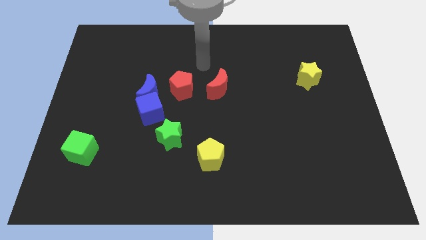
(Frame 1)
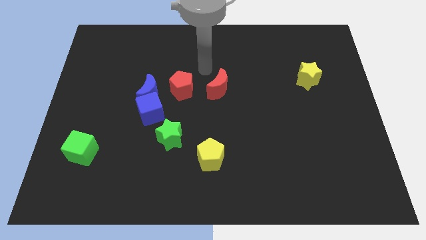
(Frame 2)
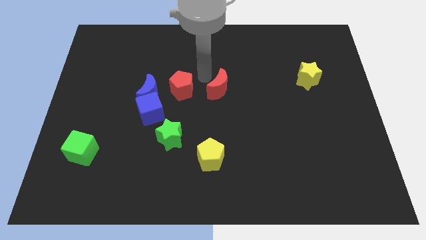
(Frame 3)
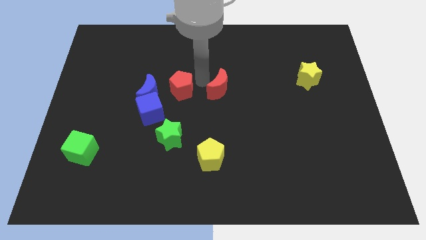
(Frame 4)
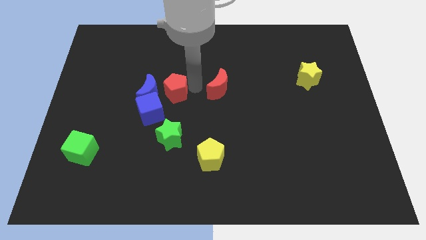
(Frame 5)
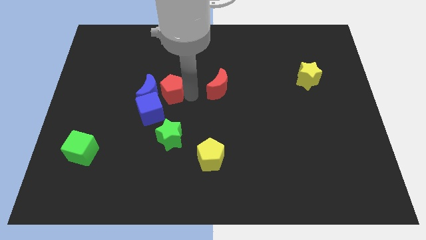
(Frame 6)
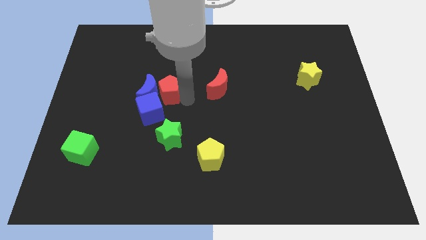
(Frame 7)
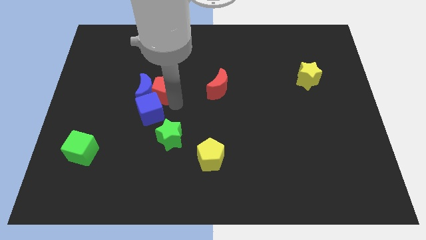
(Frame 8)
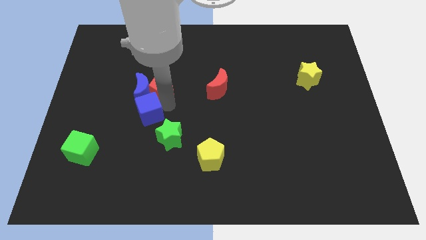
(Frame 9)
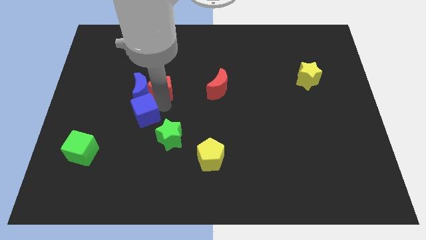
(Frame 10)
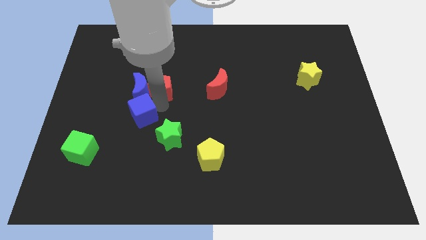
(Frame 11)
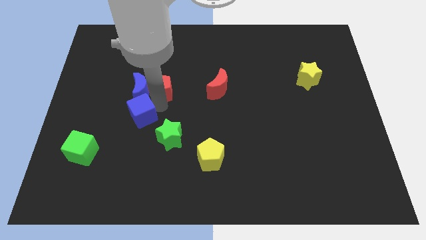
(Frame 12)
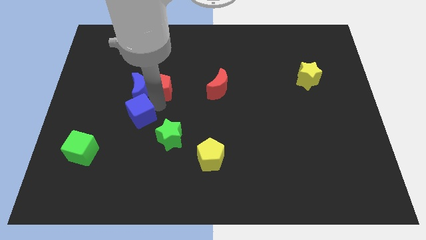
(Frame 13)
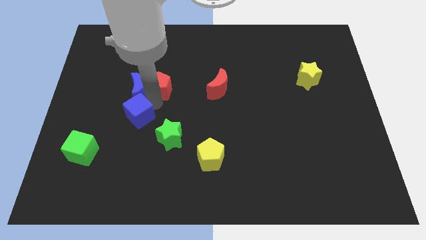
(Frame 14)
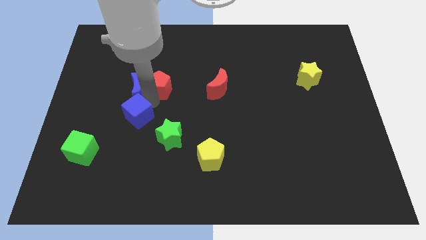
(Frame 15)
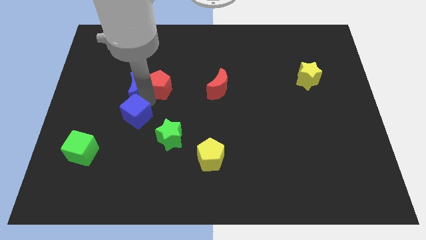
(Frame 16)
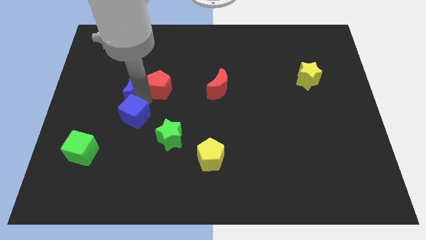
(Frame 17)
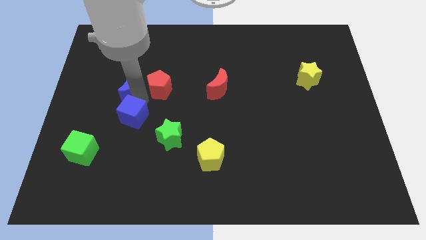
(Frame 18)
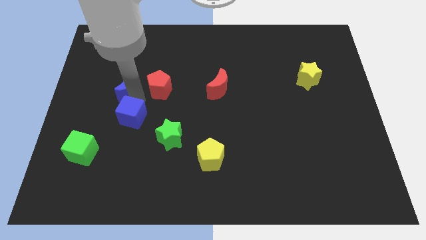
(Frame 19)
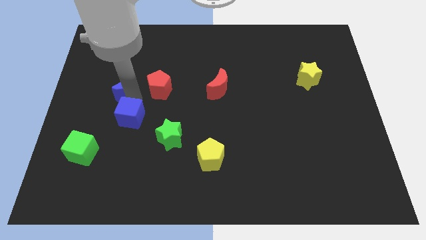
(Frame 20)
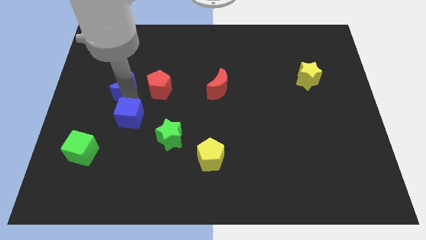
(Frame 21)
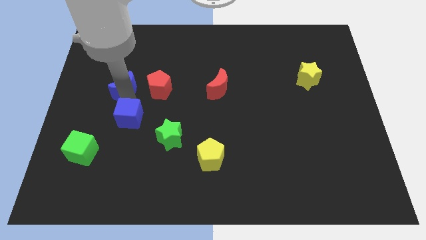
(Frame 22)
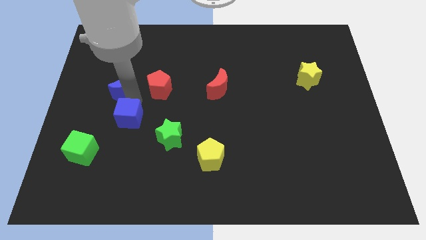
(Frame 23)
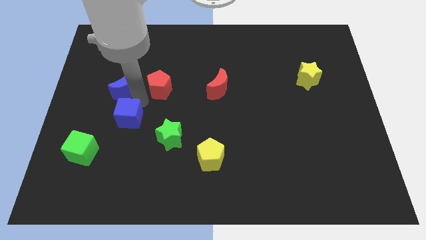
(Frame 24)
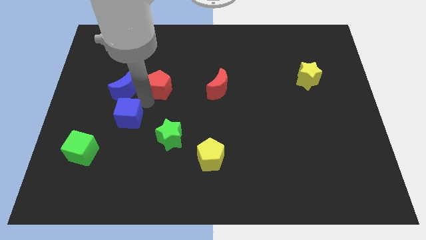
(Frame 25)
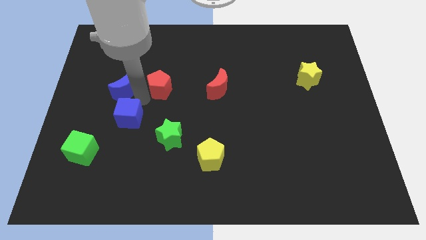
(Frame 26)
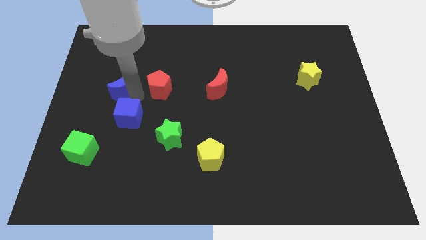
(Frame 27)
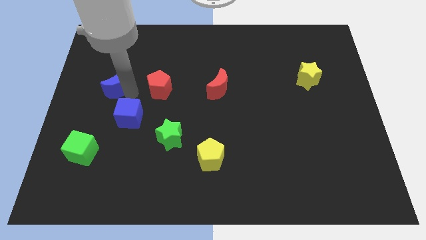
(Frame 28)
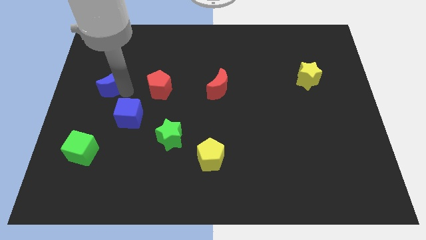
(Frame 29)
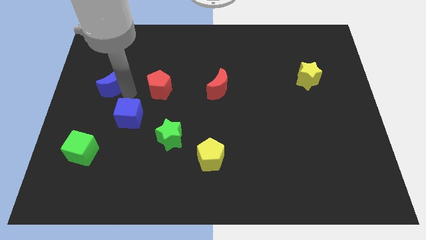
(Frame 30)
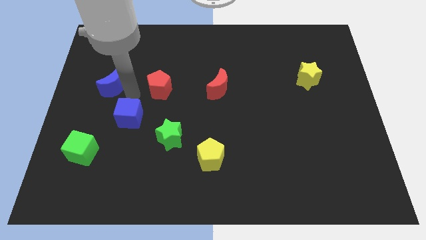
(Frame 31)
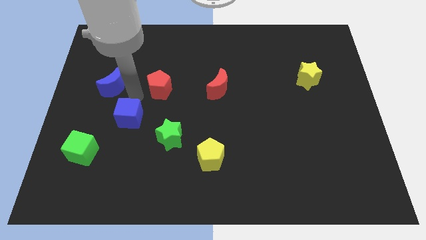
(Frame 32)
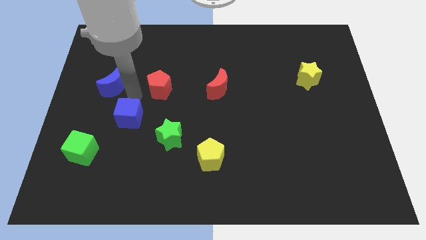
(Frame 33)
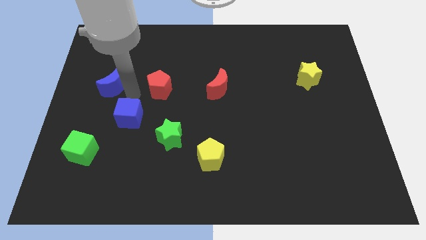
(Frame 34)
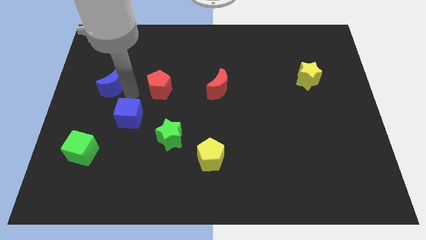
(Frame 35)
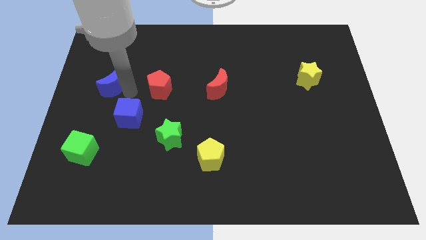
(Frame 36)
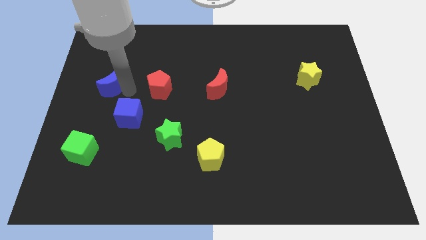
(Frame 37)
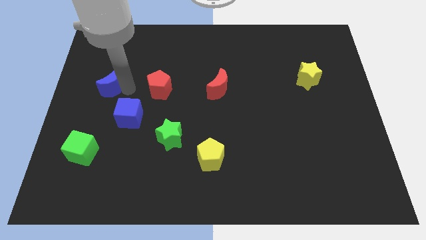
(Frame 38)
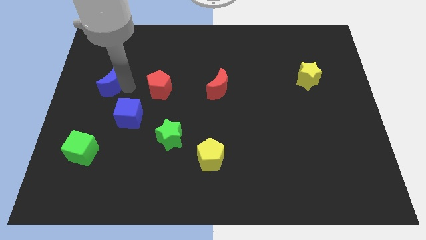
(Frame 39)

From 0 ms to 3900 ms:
pull the blue moon apart from the blue cube and red pentagon

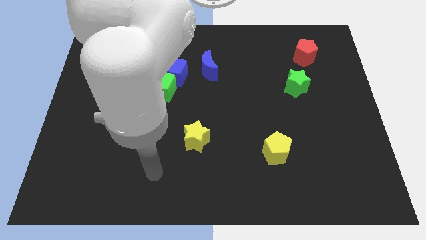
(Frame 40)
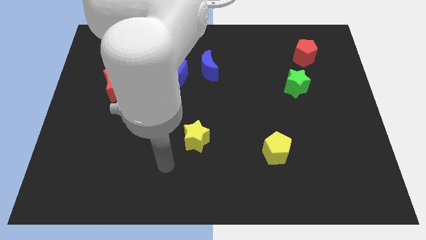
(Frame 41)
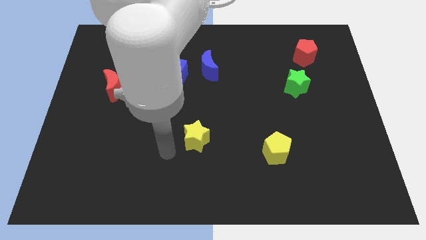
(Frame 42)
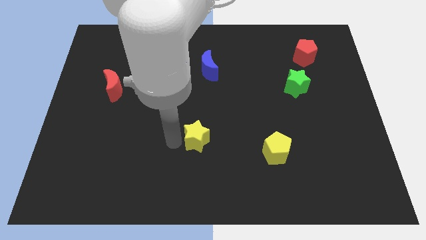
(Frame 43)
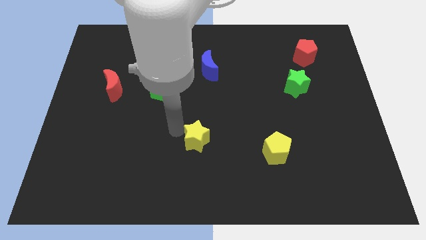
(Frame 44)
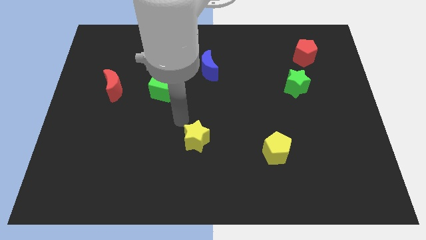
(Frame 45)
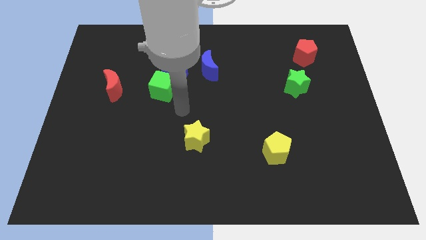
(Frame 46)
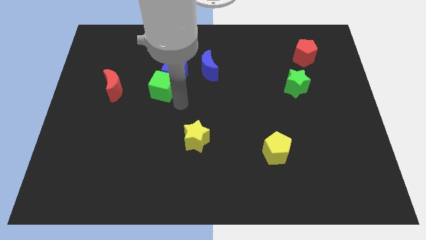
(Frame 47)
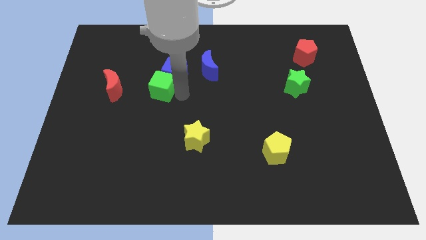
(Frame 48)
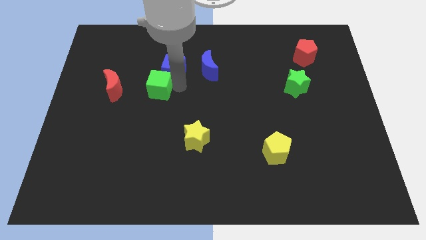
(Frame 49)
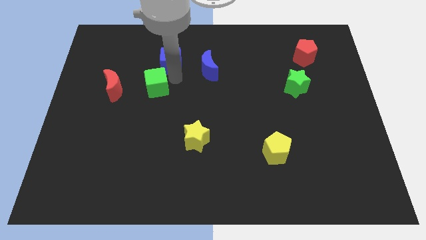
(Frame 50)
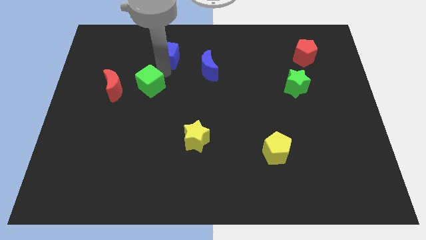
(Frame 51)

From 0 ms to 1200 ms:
separate the green cube from the blue cube

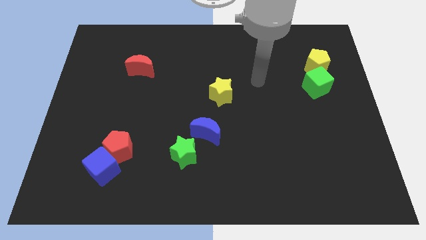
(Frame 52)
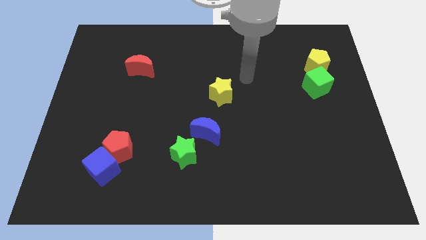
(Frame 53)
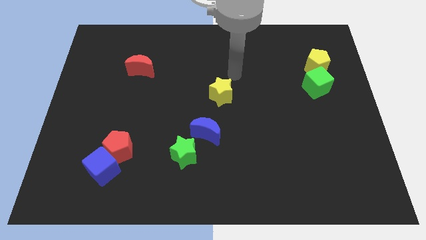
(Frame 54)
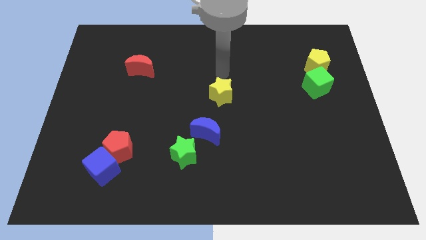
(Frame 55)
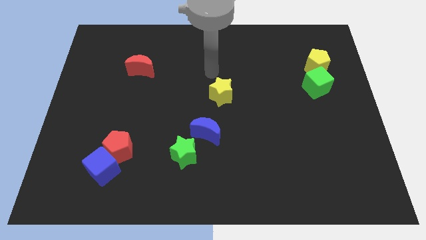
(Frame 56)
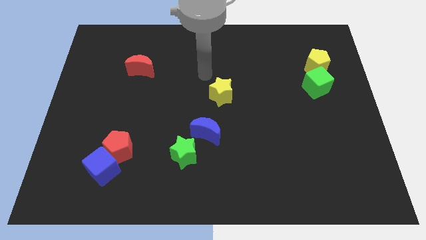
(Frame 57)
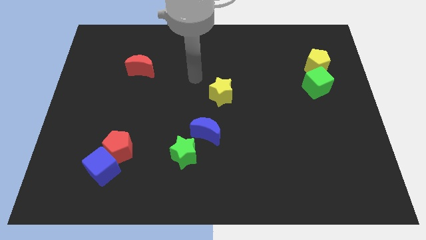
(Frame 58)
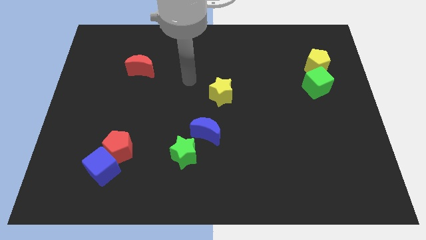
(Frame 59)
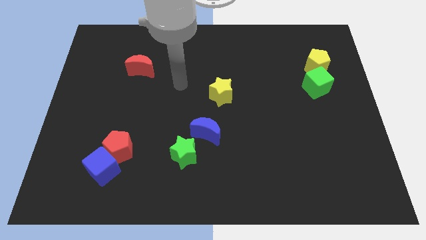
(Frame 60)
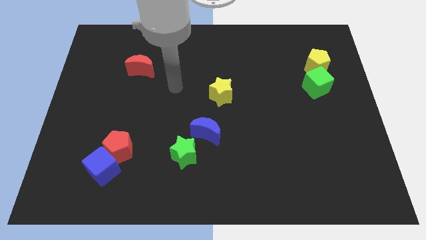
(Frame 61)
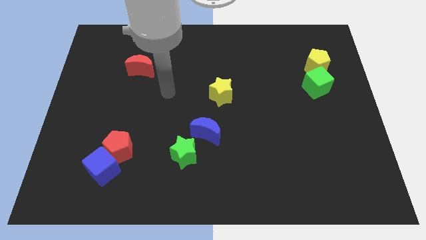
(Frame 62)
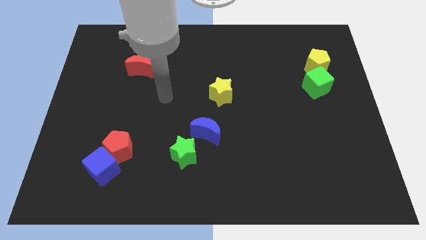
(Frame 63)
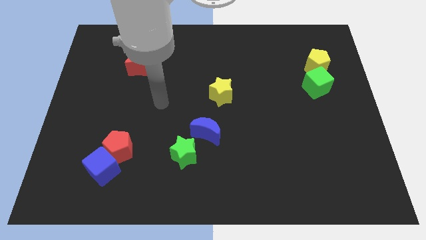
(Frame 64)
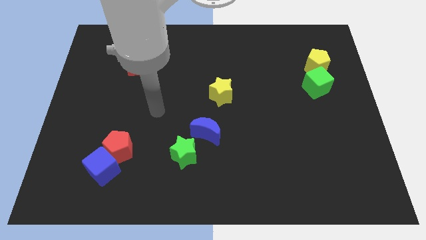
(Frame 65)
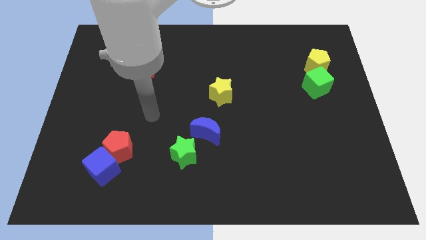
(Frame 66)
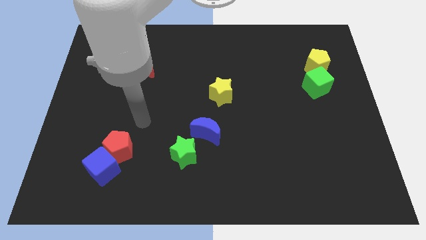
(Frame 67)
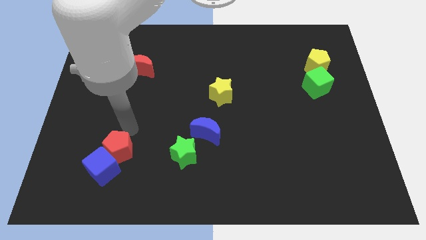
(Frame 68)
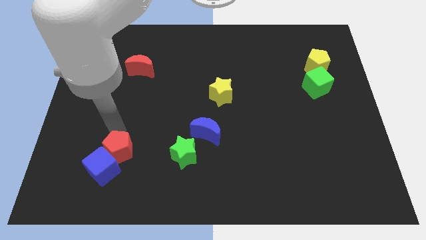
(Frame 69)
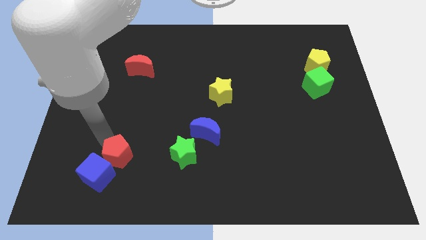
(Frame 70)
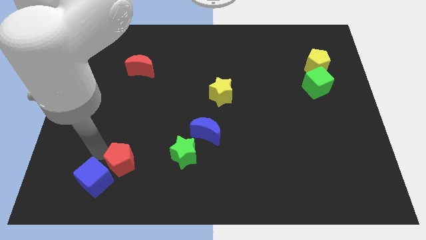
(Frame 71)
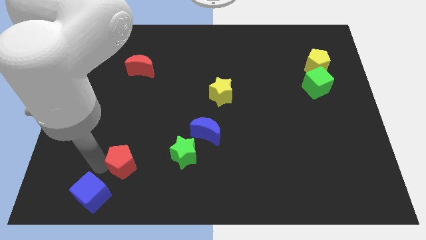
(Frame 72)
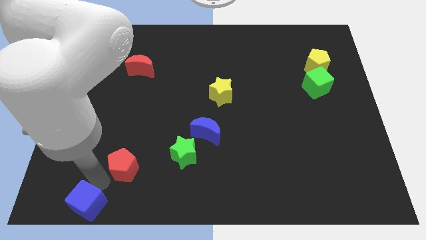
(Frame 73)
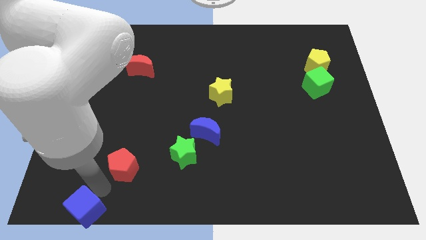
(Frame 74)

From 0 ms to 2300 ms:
pull the red pentagon apart from the blue cube

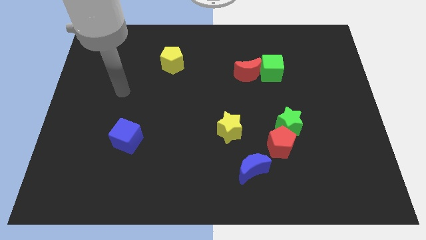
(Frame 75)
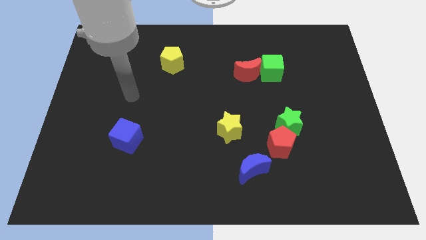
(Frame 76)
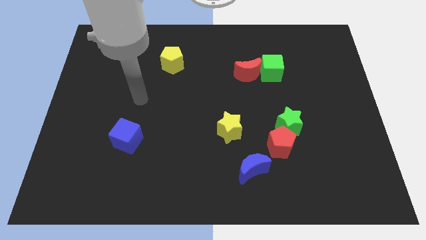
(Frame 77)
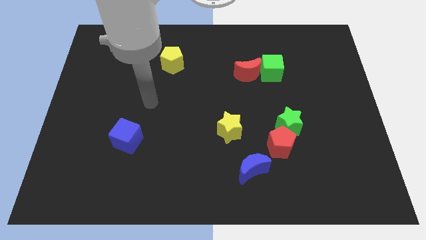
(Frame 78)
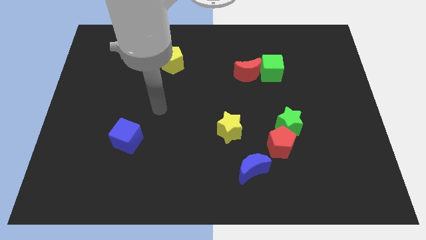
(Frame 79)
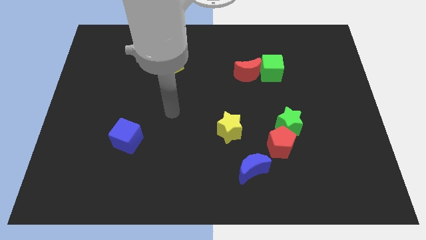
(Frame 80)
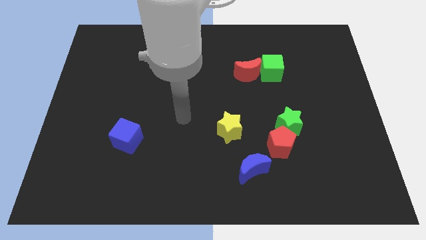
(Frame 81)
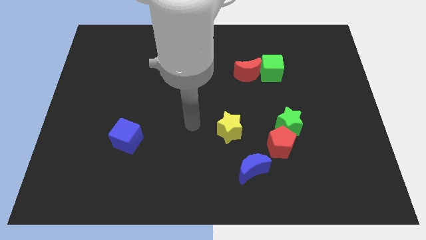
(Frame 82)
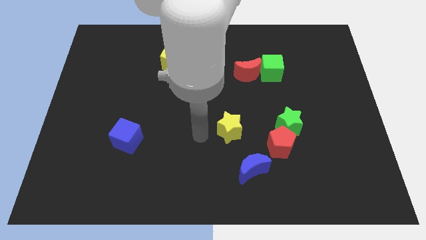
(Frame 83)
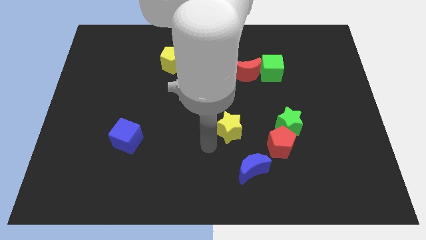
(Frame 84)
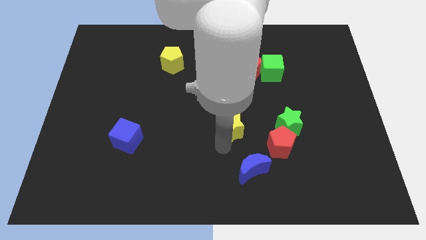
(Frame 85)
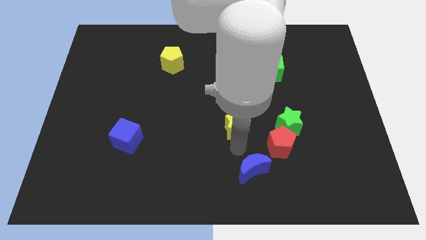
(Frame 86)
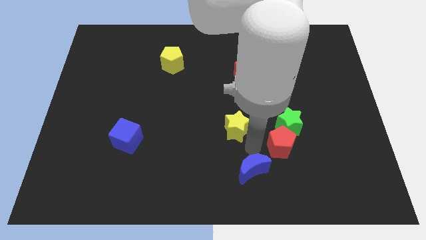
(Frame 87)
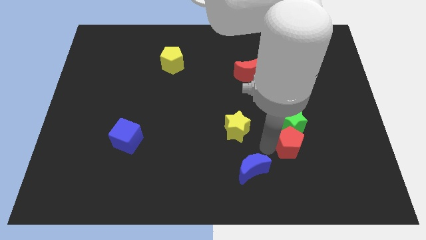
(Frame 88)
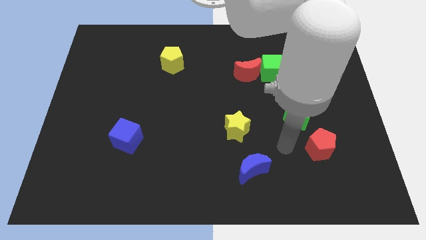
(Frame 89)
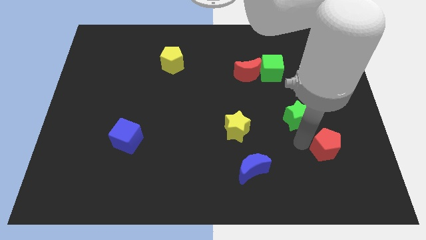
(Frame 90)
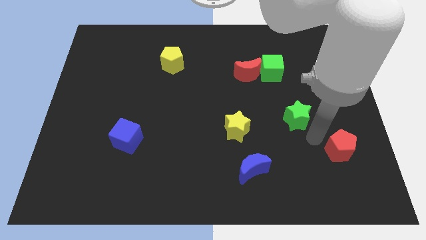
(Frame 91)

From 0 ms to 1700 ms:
separate the green star from the red pentagon

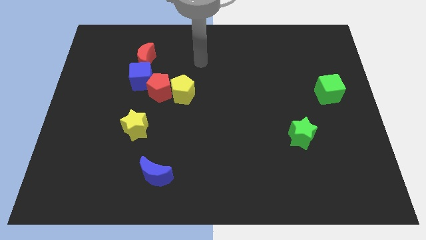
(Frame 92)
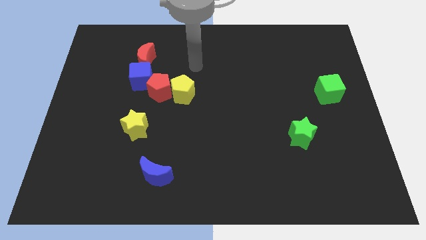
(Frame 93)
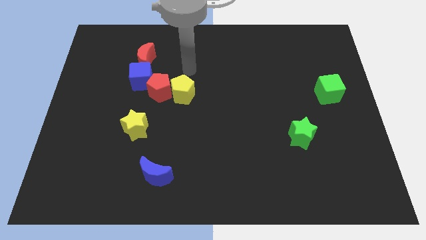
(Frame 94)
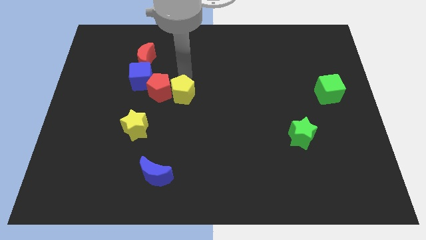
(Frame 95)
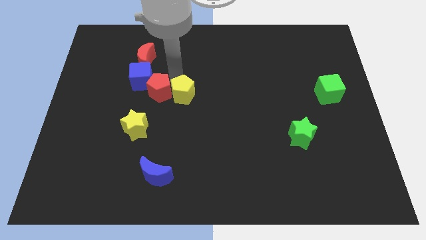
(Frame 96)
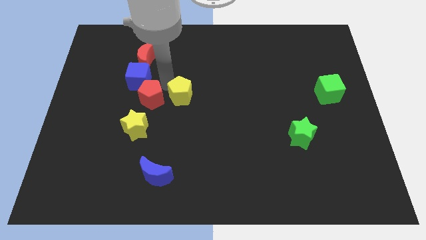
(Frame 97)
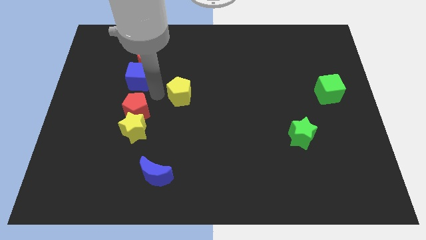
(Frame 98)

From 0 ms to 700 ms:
move the yellow pentagon away from the red pentagon
